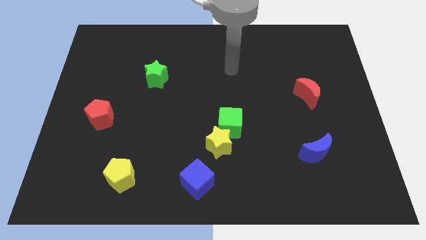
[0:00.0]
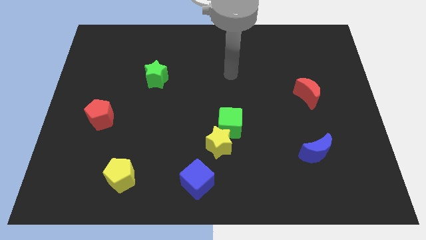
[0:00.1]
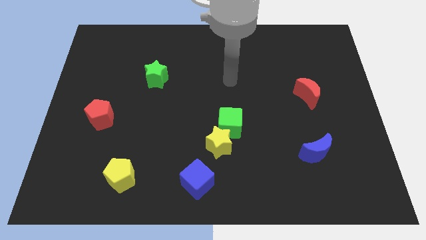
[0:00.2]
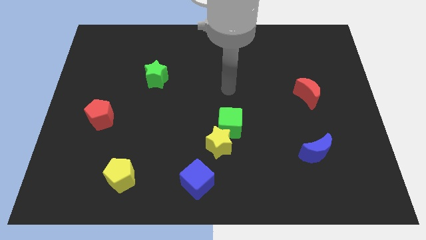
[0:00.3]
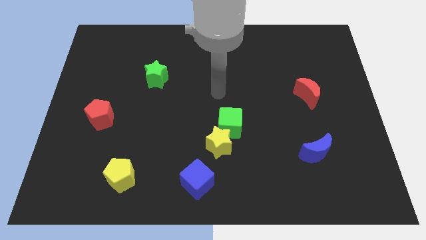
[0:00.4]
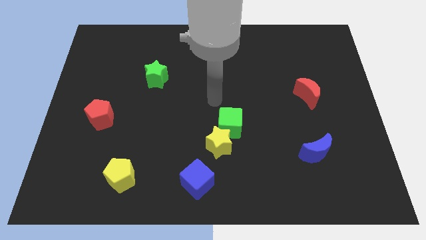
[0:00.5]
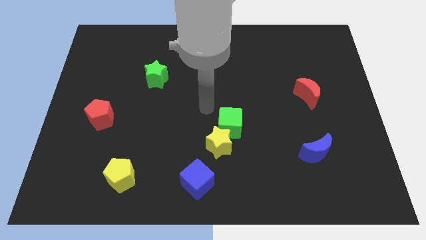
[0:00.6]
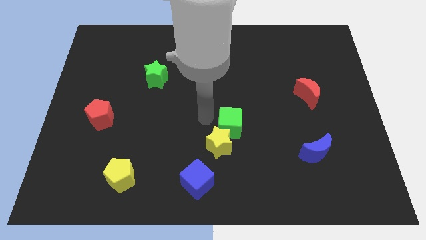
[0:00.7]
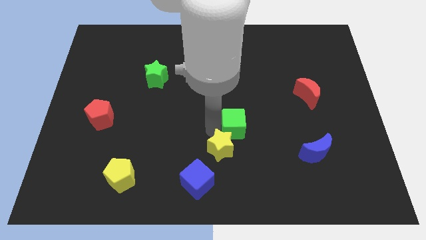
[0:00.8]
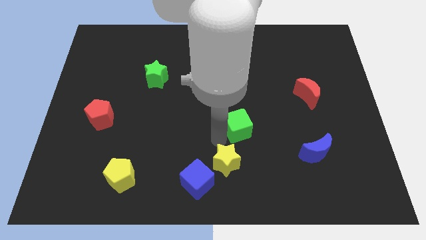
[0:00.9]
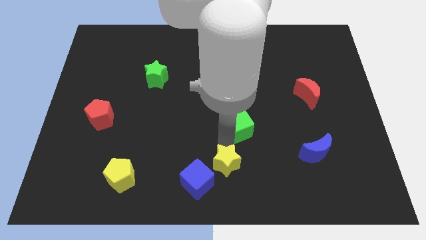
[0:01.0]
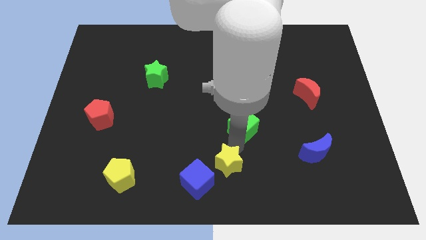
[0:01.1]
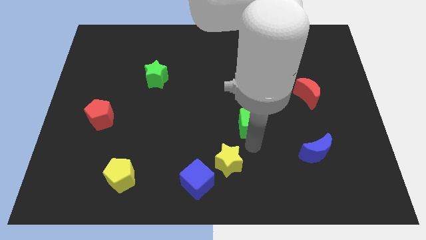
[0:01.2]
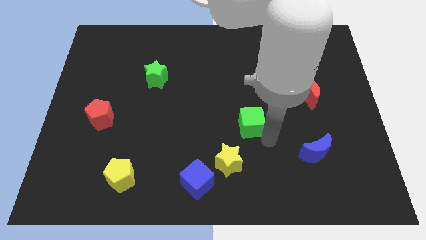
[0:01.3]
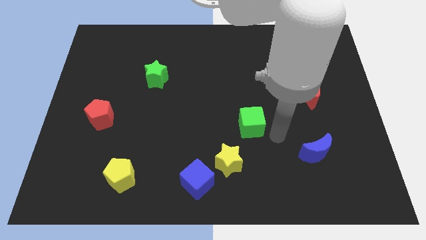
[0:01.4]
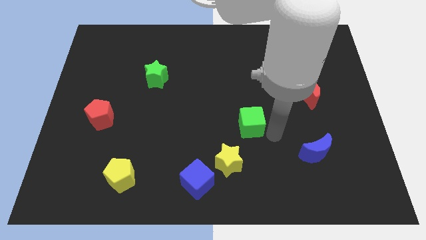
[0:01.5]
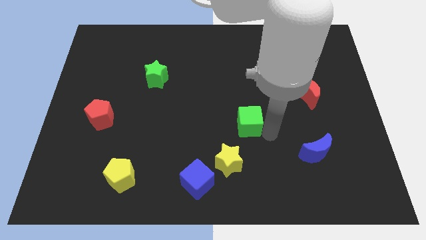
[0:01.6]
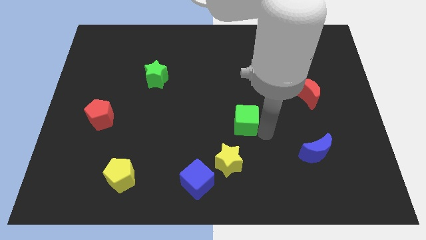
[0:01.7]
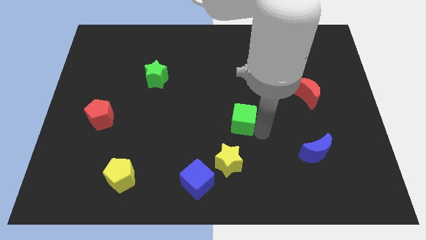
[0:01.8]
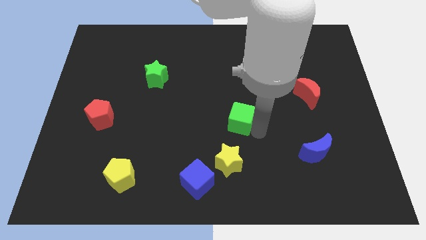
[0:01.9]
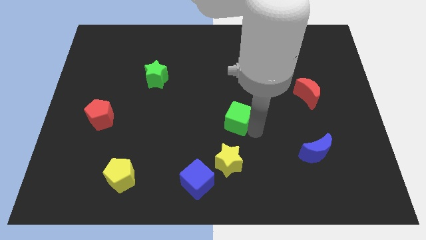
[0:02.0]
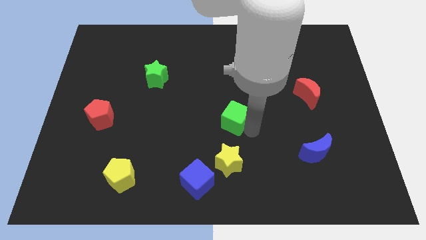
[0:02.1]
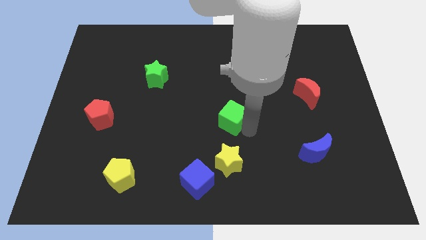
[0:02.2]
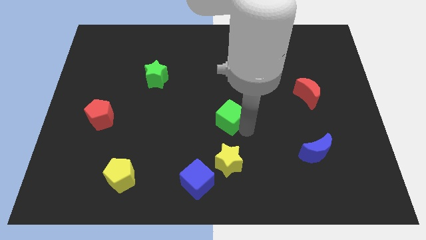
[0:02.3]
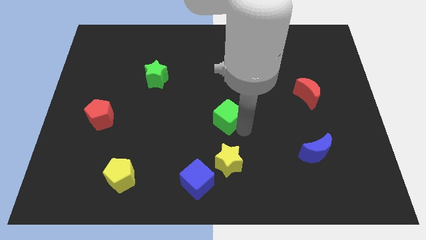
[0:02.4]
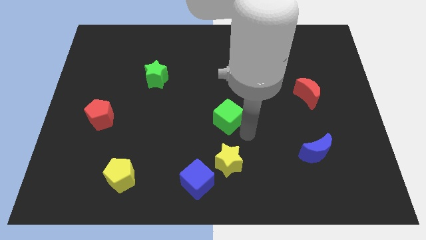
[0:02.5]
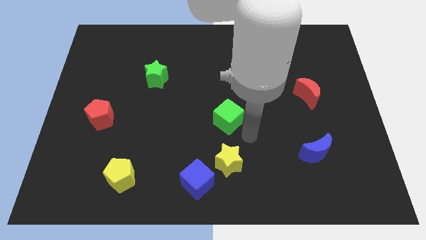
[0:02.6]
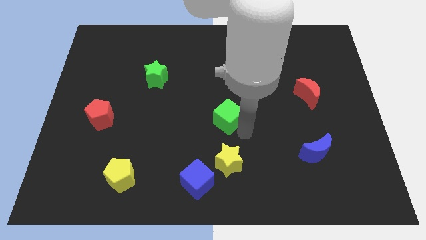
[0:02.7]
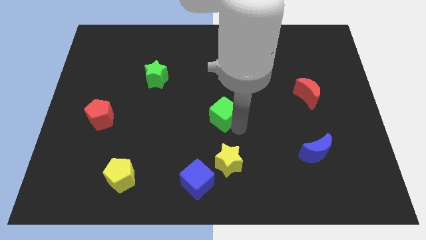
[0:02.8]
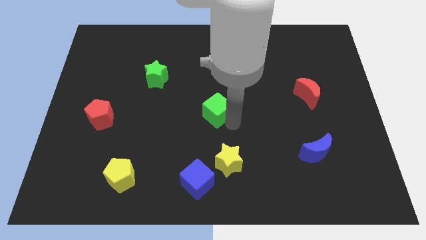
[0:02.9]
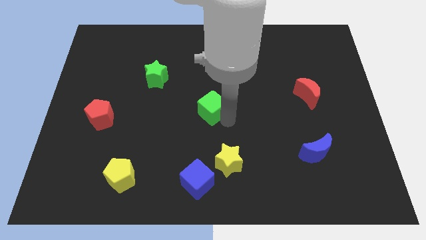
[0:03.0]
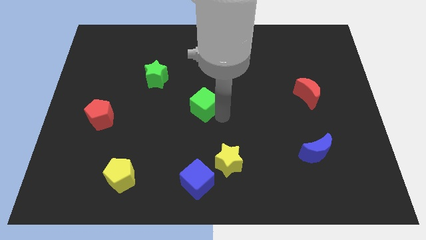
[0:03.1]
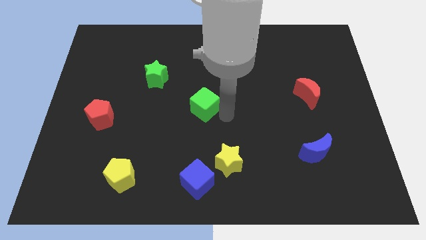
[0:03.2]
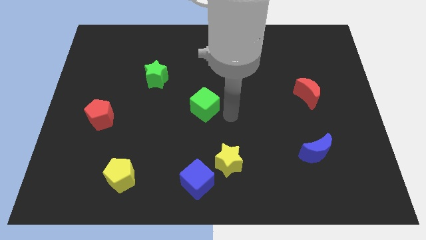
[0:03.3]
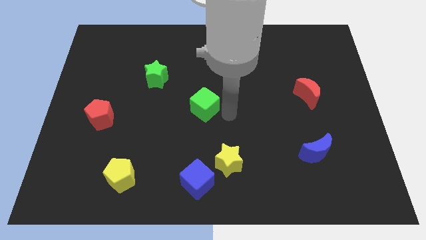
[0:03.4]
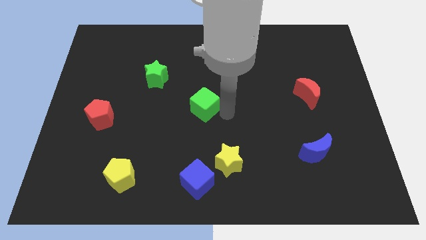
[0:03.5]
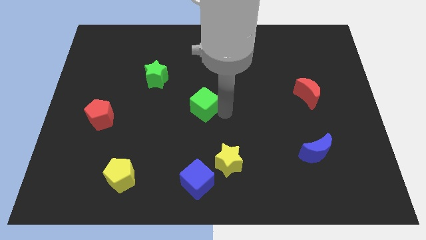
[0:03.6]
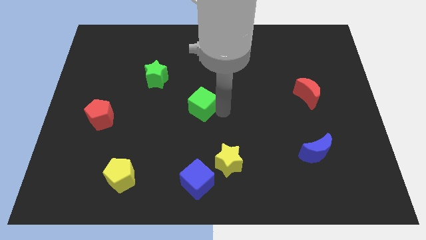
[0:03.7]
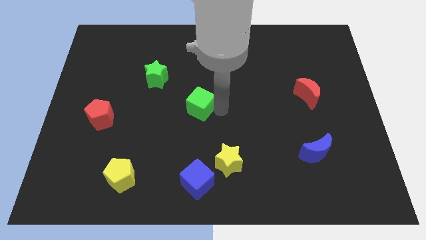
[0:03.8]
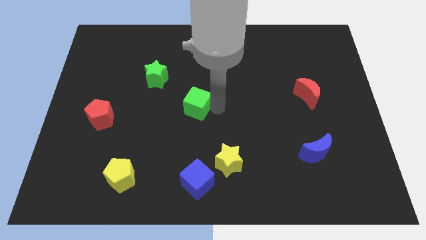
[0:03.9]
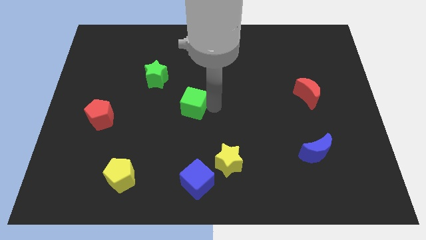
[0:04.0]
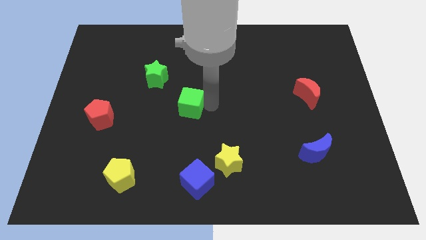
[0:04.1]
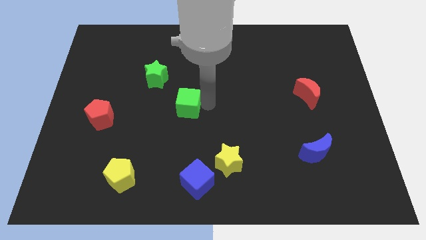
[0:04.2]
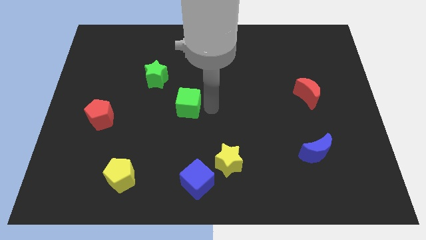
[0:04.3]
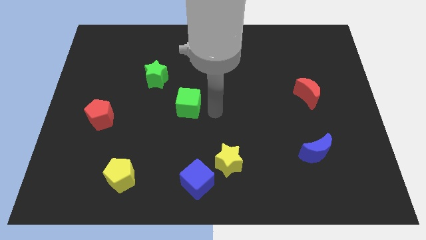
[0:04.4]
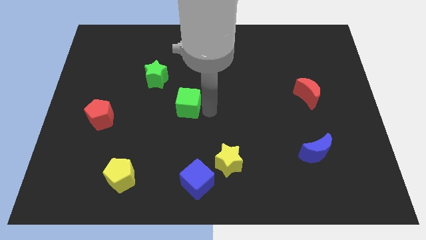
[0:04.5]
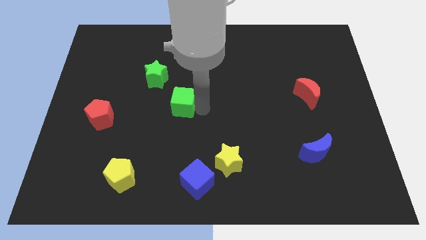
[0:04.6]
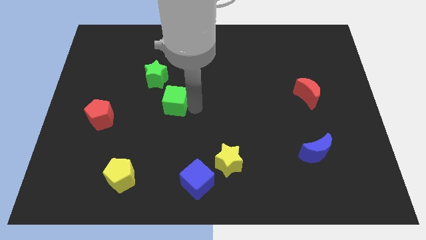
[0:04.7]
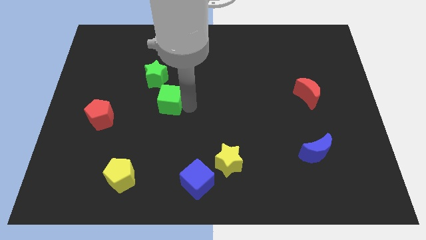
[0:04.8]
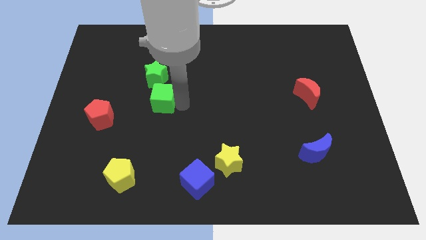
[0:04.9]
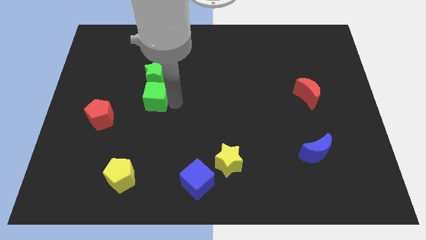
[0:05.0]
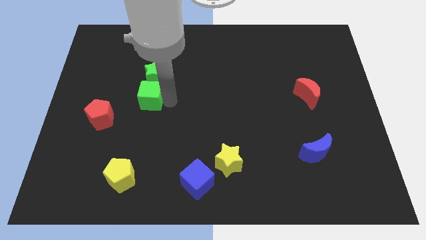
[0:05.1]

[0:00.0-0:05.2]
slide the green cube diagonally down and to the left of the green star
